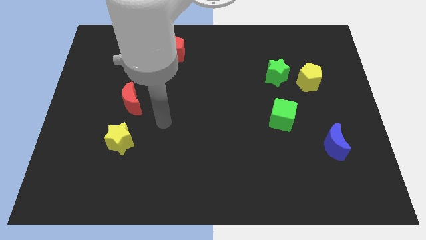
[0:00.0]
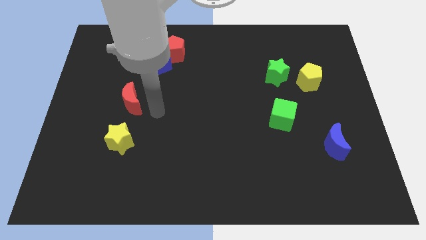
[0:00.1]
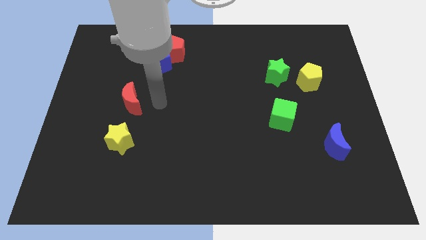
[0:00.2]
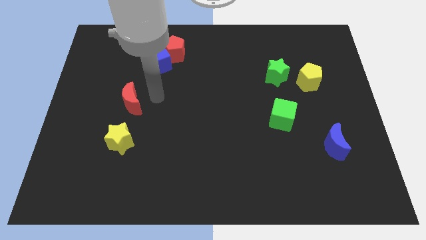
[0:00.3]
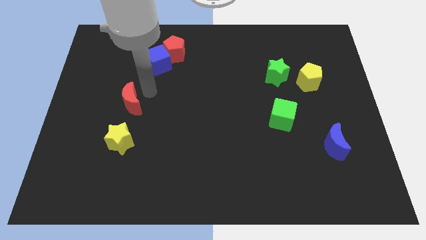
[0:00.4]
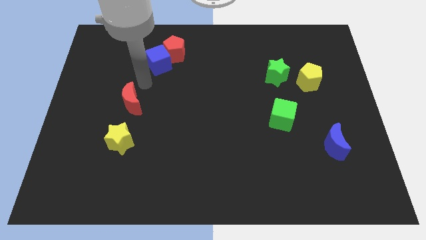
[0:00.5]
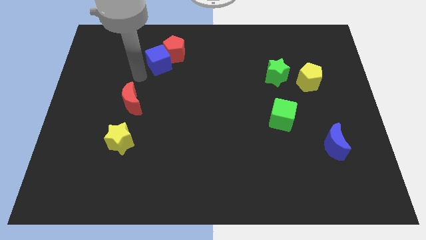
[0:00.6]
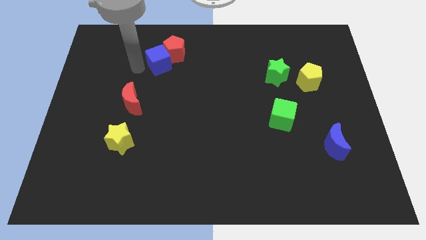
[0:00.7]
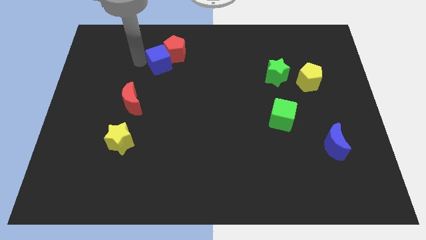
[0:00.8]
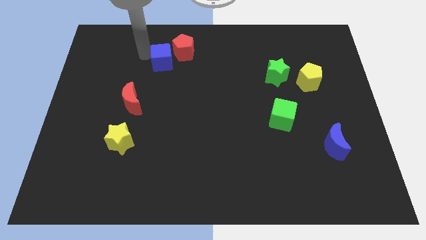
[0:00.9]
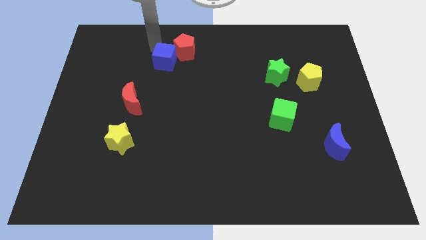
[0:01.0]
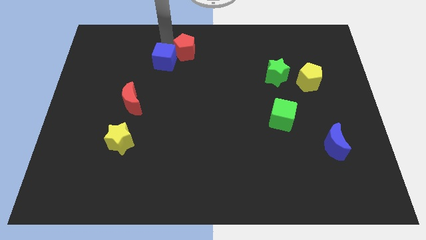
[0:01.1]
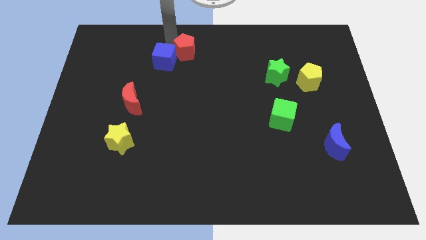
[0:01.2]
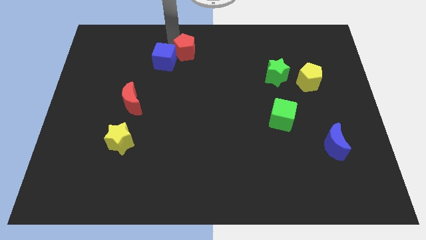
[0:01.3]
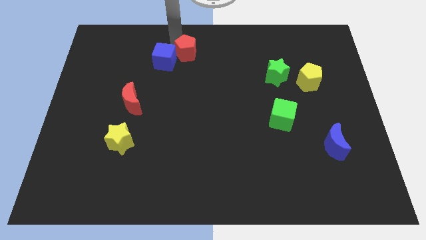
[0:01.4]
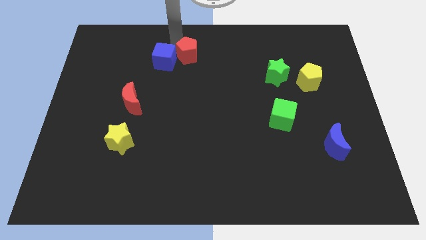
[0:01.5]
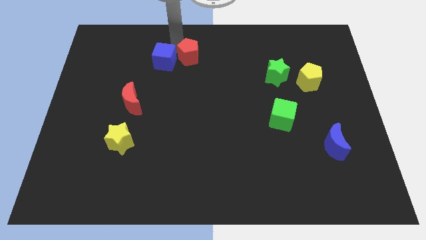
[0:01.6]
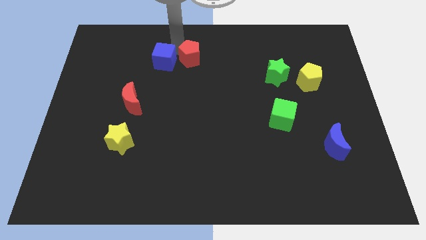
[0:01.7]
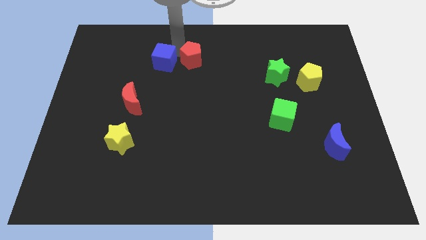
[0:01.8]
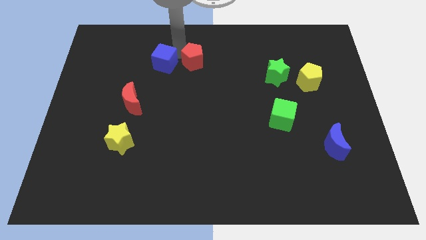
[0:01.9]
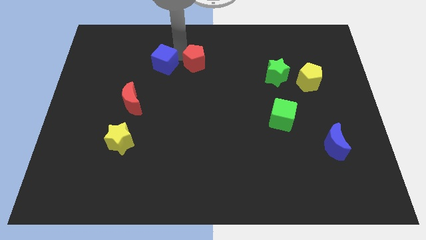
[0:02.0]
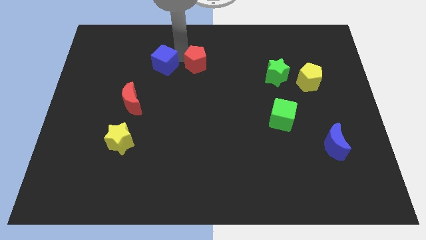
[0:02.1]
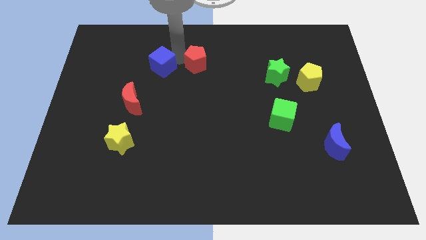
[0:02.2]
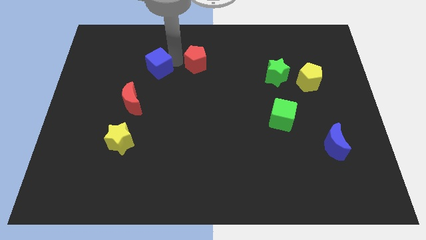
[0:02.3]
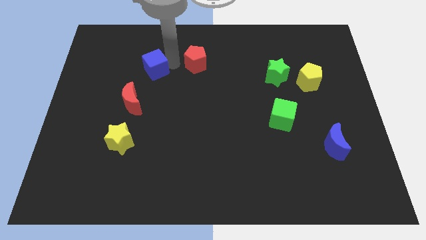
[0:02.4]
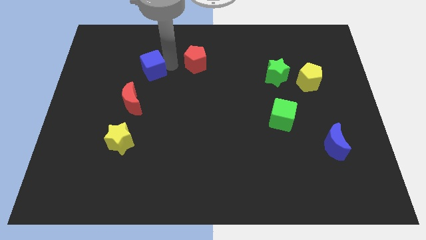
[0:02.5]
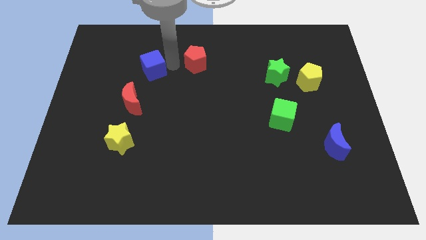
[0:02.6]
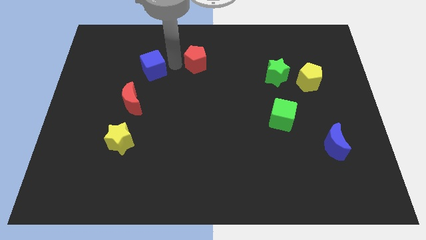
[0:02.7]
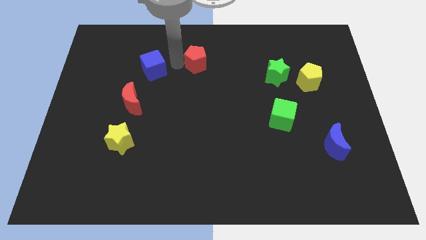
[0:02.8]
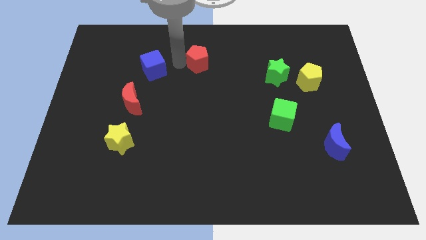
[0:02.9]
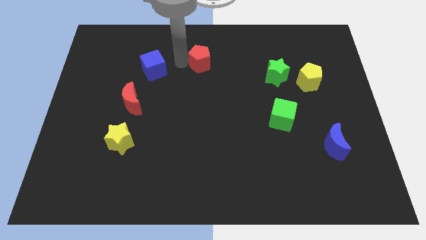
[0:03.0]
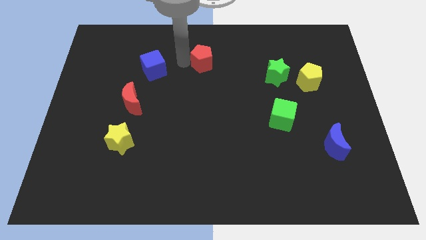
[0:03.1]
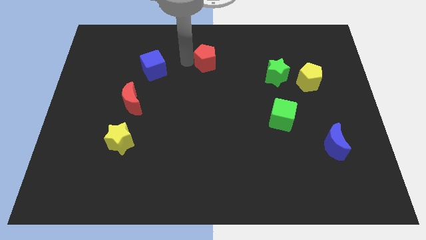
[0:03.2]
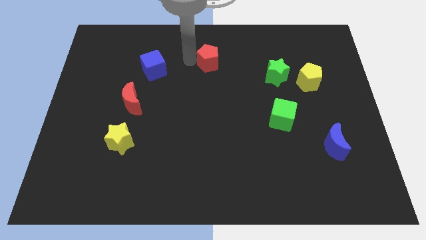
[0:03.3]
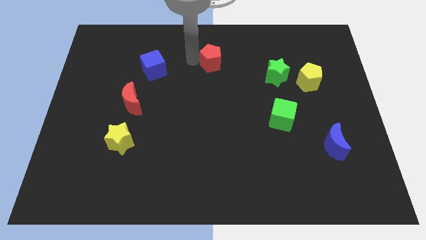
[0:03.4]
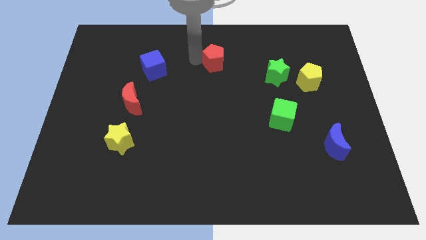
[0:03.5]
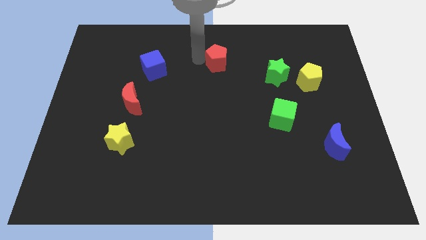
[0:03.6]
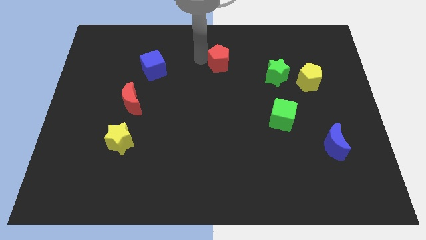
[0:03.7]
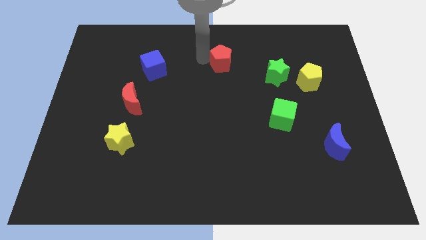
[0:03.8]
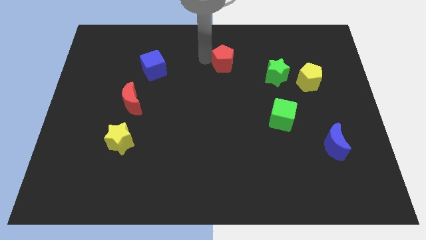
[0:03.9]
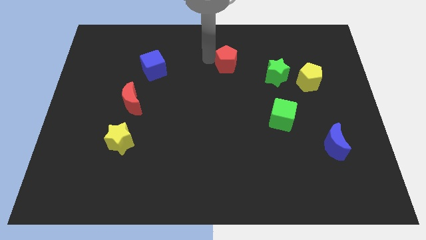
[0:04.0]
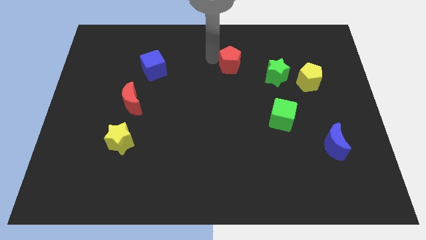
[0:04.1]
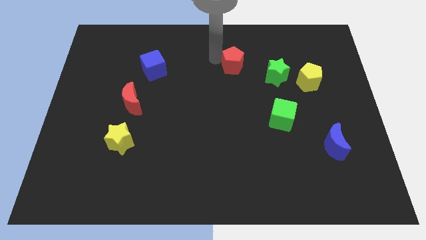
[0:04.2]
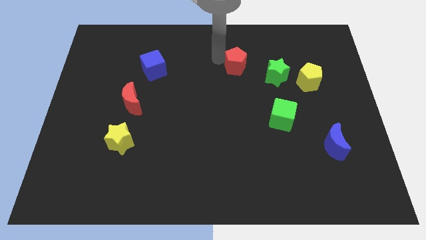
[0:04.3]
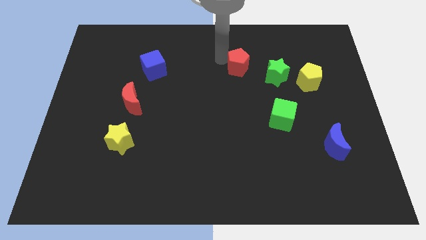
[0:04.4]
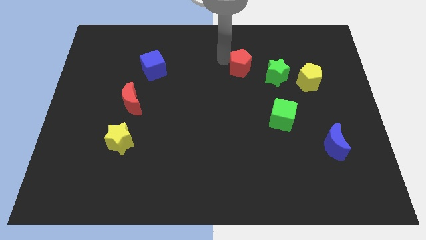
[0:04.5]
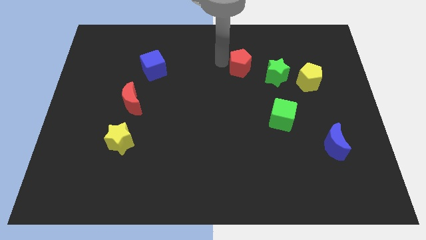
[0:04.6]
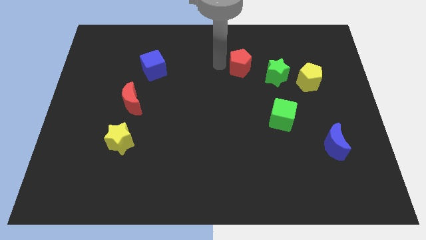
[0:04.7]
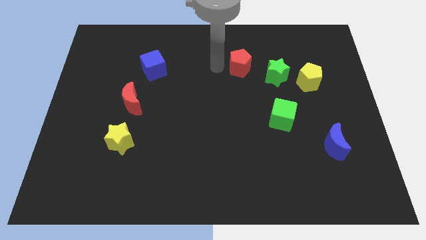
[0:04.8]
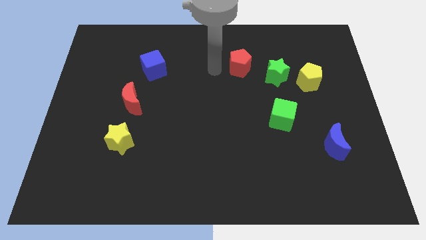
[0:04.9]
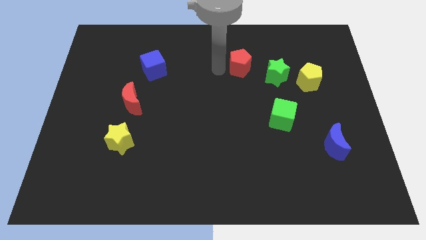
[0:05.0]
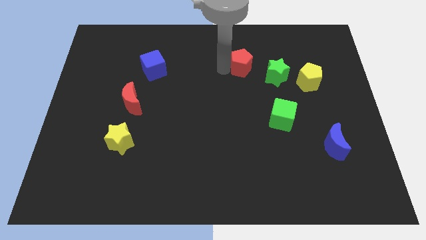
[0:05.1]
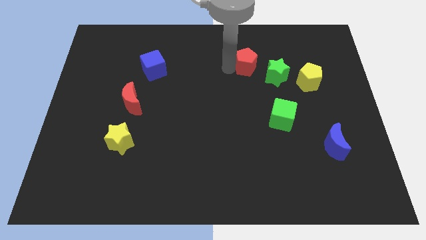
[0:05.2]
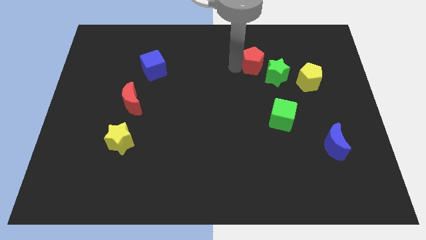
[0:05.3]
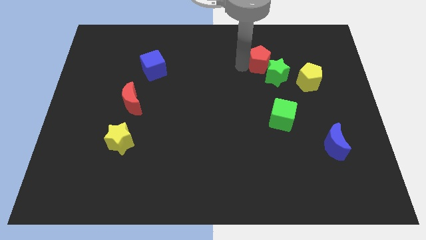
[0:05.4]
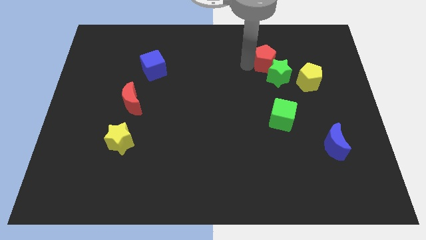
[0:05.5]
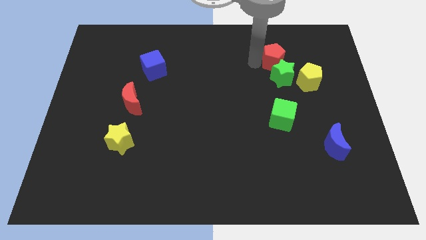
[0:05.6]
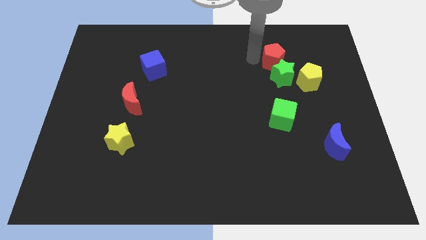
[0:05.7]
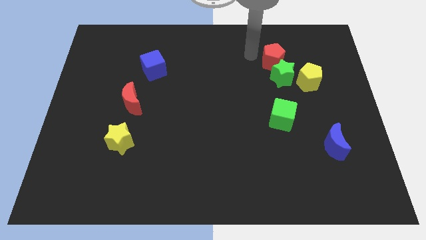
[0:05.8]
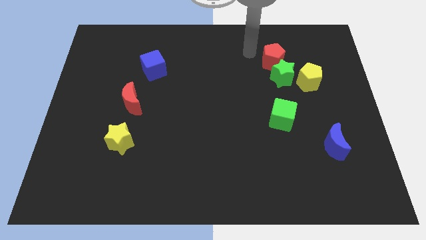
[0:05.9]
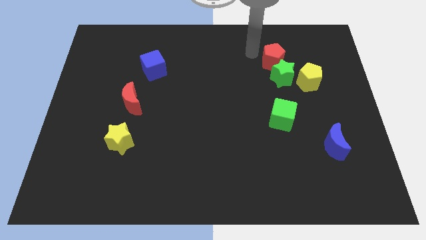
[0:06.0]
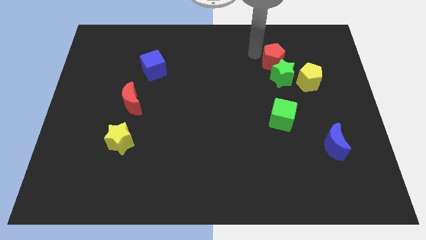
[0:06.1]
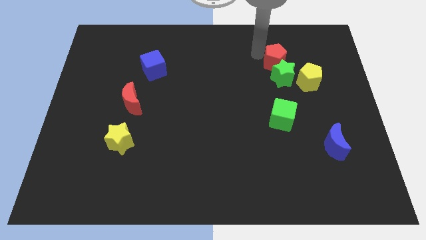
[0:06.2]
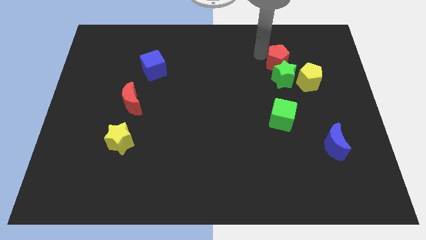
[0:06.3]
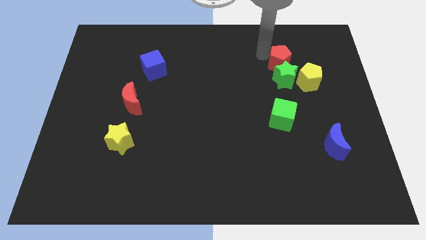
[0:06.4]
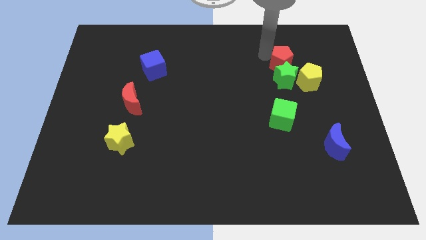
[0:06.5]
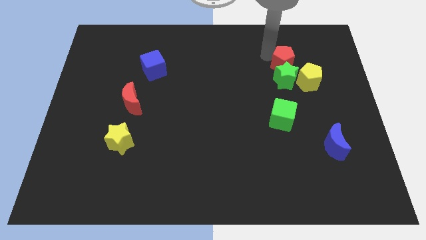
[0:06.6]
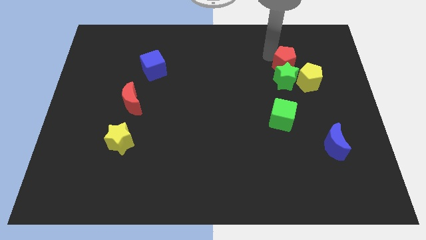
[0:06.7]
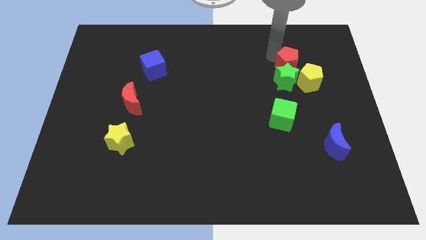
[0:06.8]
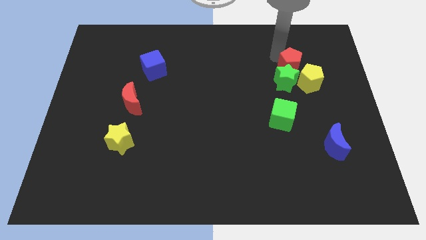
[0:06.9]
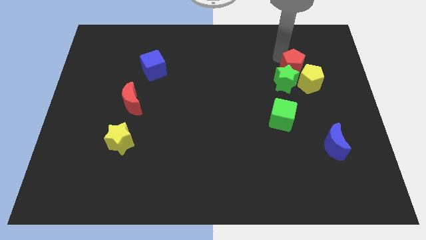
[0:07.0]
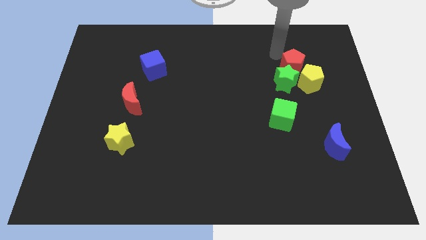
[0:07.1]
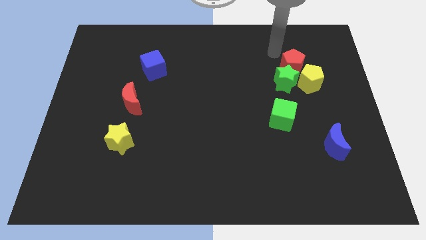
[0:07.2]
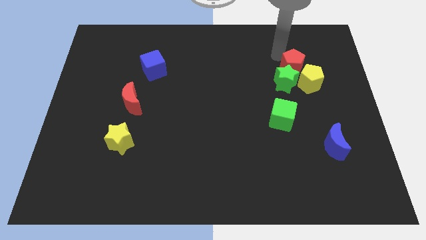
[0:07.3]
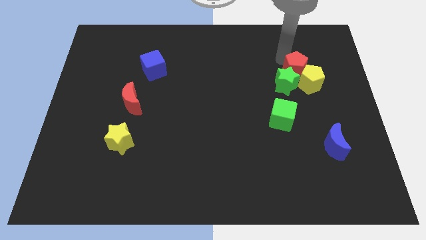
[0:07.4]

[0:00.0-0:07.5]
move the red pentagon next to the yellow pentagon
